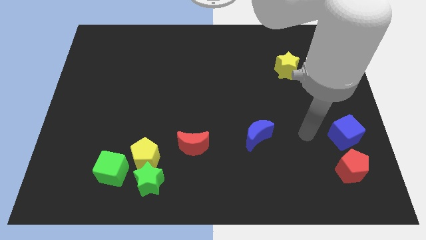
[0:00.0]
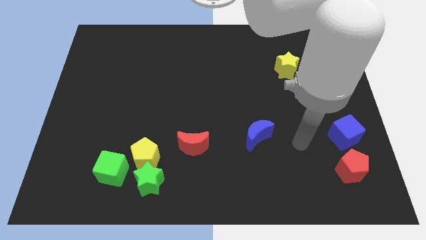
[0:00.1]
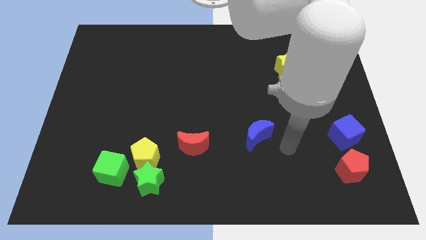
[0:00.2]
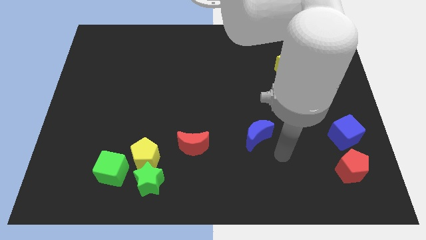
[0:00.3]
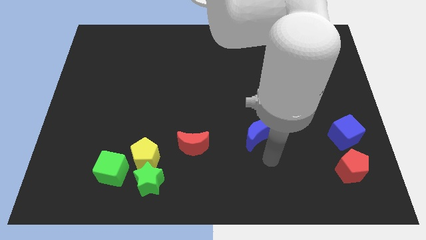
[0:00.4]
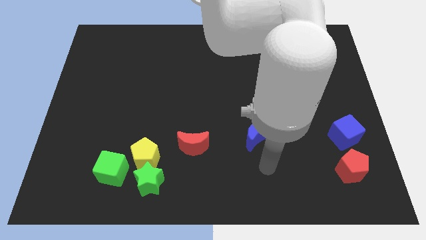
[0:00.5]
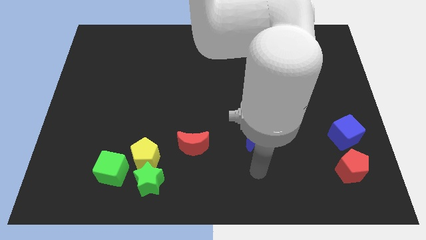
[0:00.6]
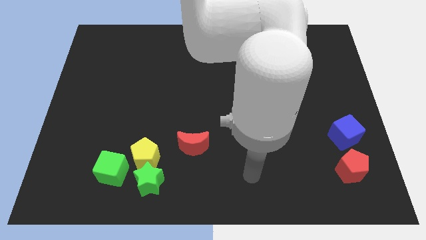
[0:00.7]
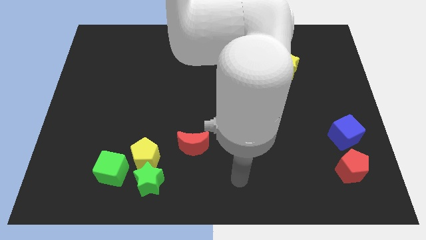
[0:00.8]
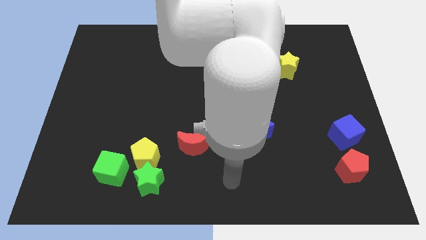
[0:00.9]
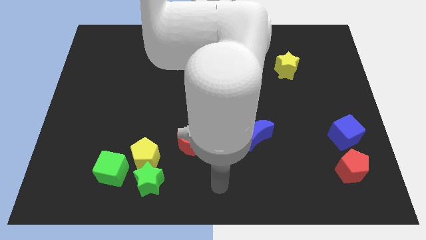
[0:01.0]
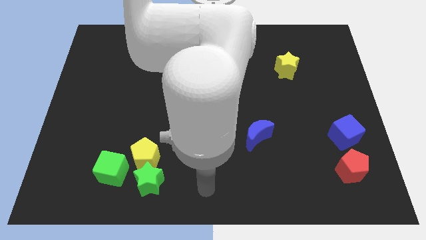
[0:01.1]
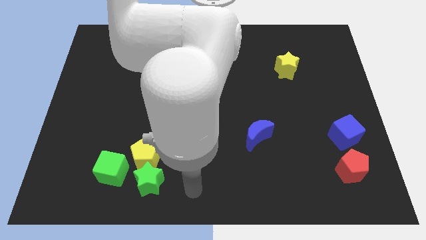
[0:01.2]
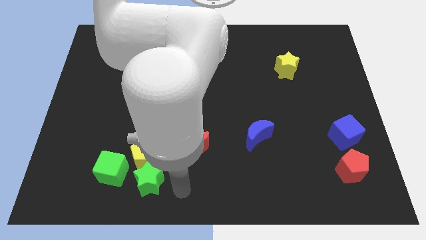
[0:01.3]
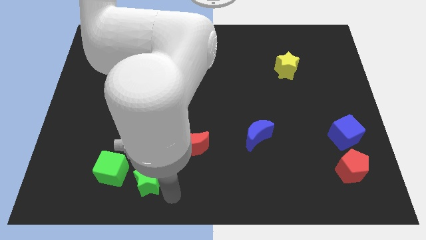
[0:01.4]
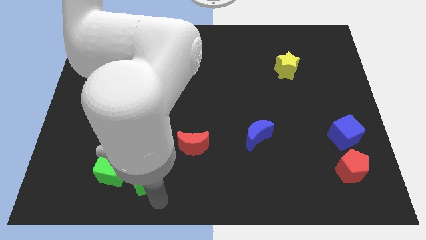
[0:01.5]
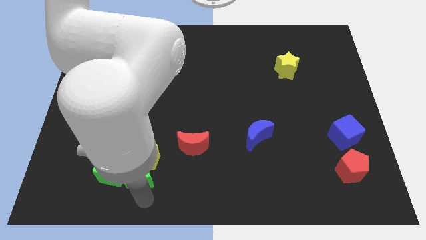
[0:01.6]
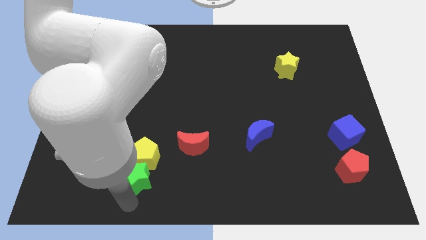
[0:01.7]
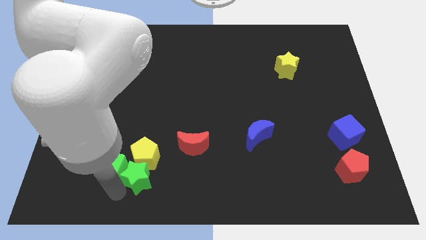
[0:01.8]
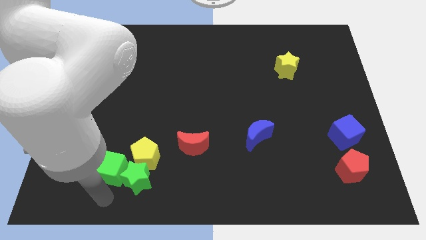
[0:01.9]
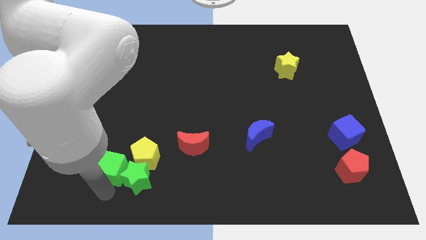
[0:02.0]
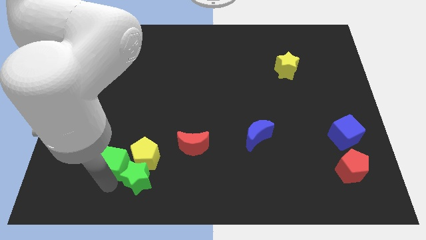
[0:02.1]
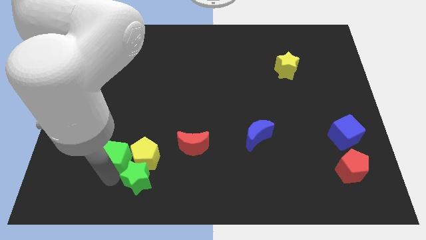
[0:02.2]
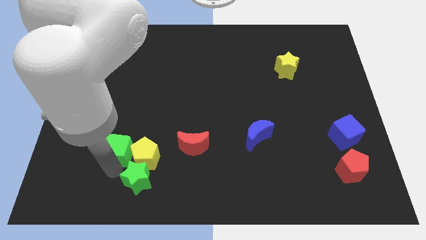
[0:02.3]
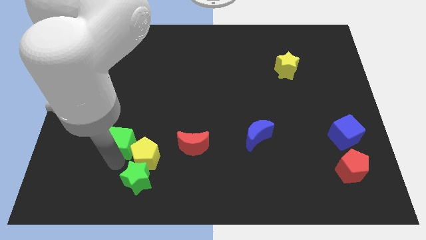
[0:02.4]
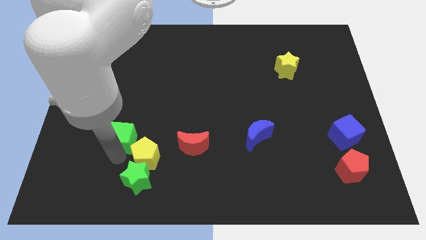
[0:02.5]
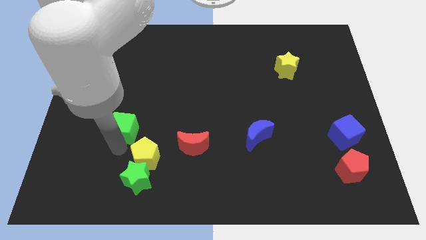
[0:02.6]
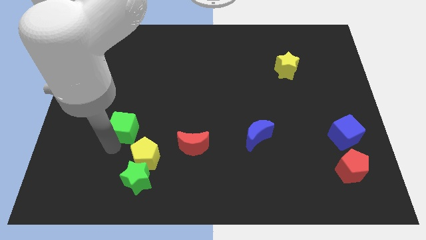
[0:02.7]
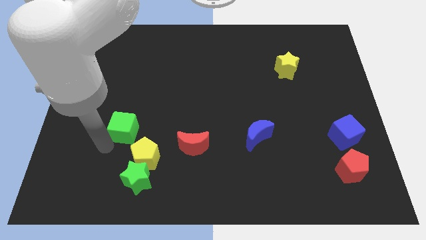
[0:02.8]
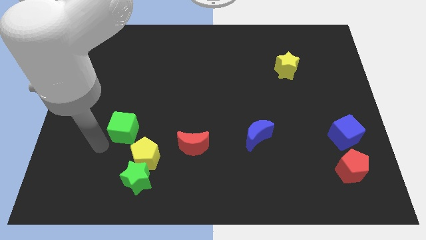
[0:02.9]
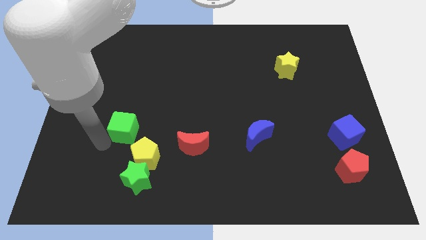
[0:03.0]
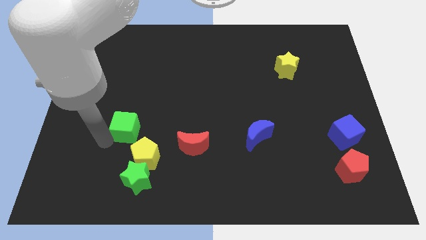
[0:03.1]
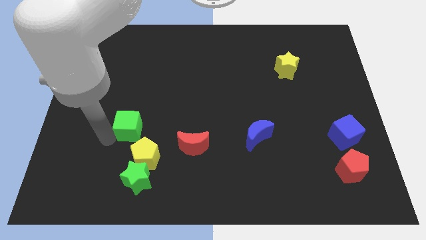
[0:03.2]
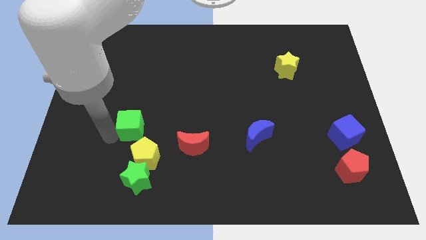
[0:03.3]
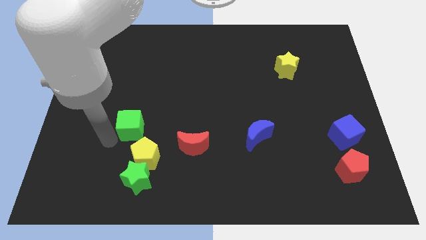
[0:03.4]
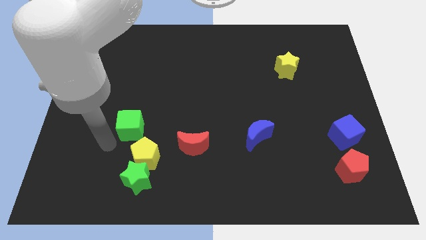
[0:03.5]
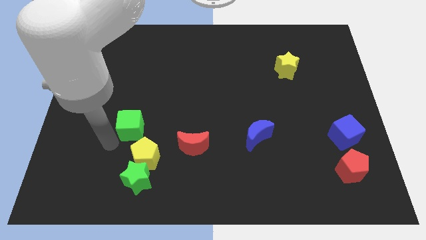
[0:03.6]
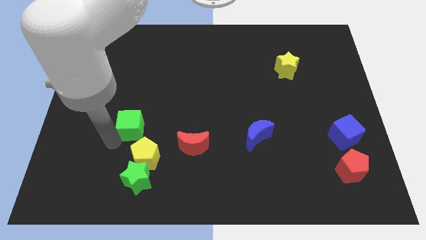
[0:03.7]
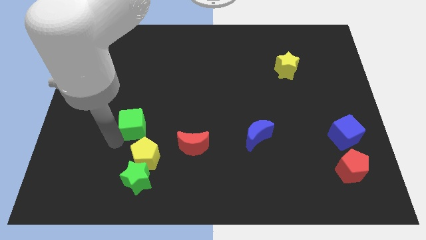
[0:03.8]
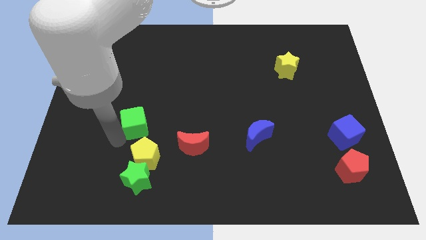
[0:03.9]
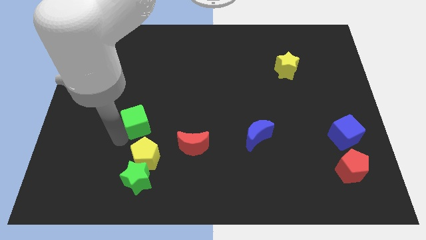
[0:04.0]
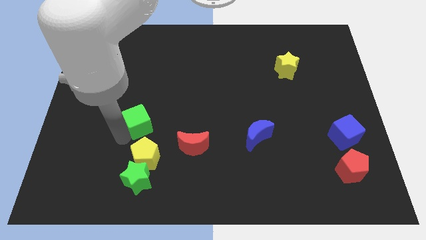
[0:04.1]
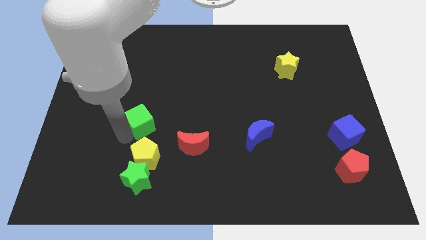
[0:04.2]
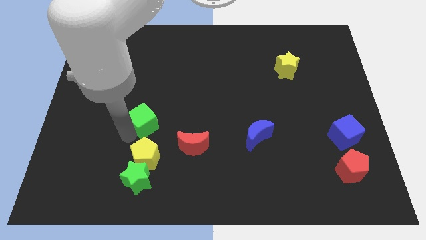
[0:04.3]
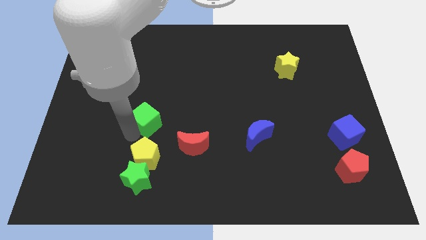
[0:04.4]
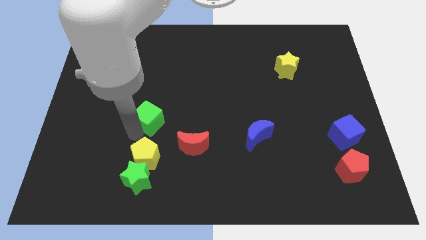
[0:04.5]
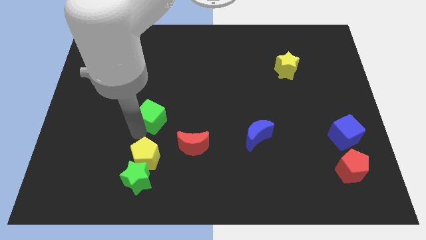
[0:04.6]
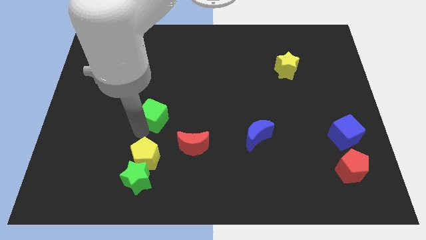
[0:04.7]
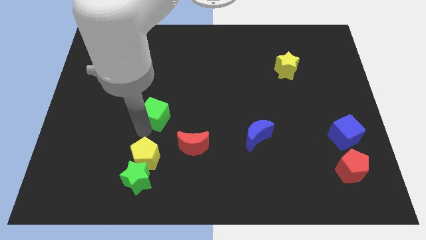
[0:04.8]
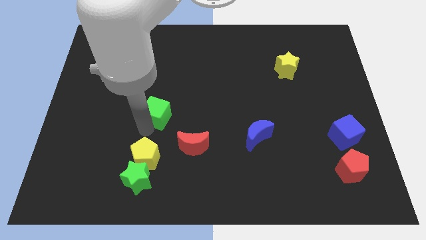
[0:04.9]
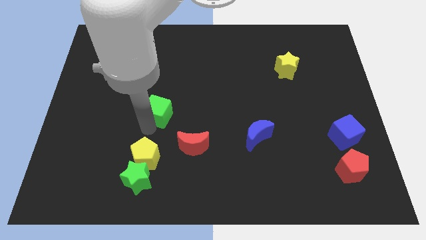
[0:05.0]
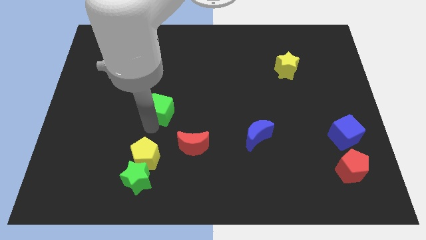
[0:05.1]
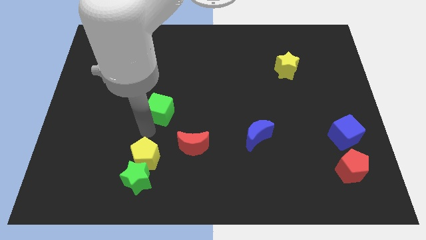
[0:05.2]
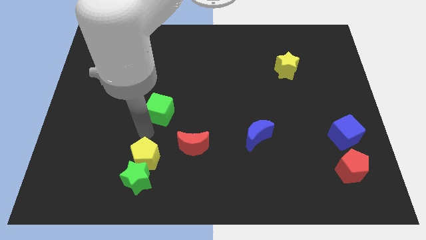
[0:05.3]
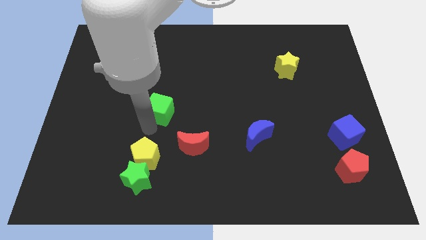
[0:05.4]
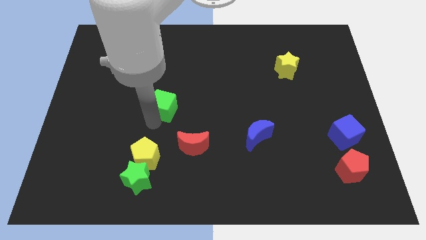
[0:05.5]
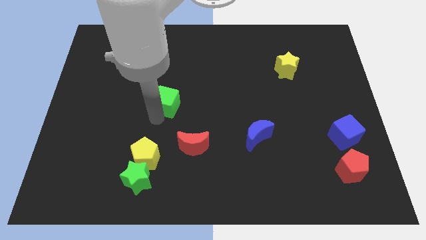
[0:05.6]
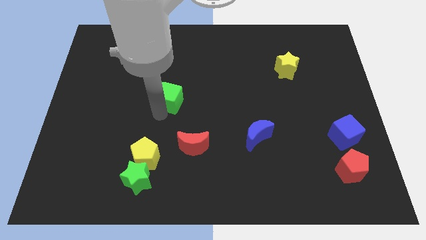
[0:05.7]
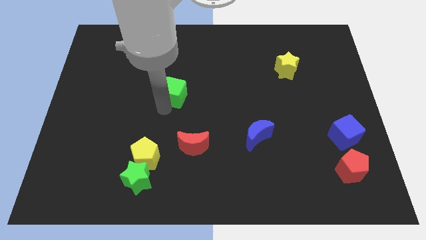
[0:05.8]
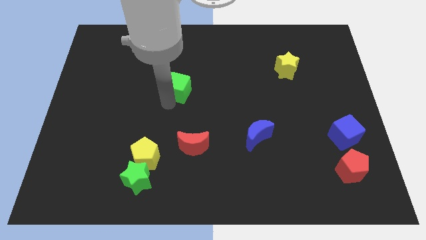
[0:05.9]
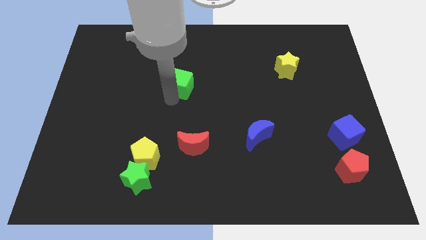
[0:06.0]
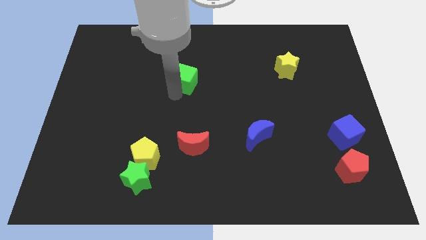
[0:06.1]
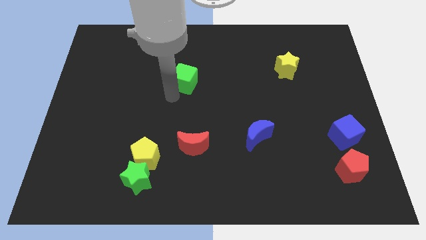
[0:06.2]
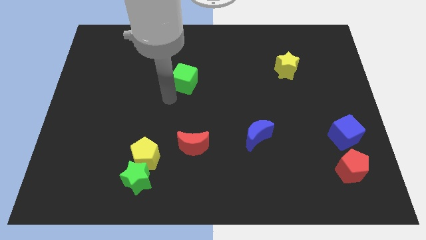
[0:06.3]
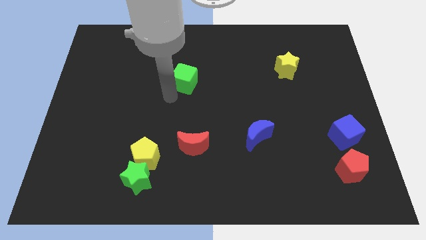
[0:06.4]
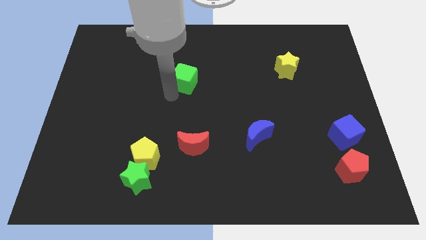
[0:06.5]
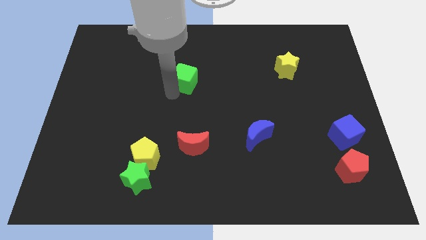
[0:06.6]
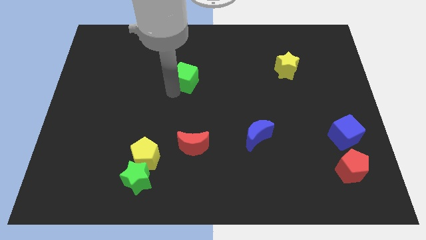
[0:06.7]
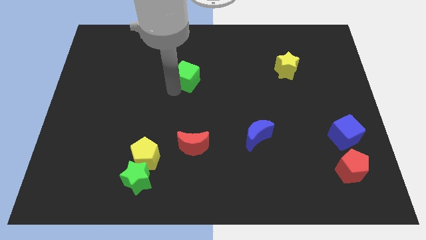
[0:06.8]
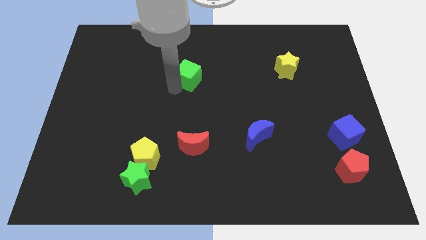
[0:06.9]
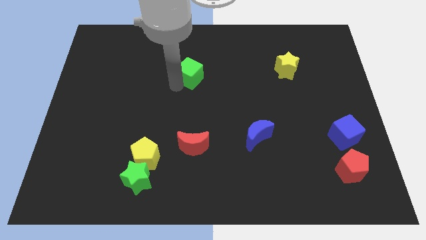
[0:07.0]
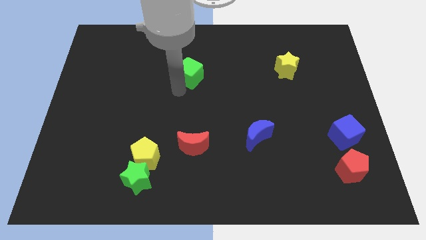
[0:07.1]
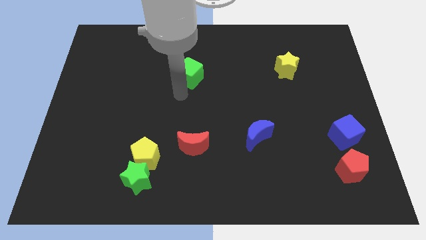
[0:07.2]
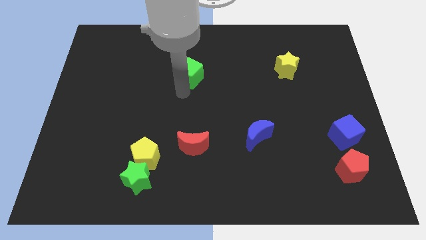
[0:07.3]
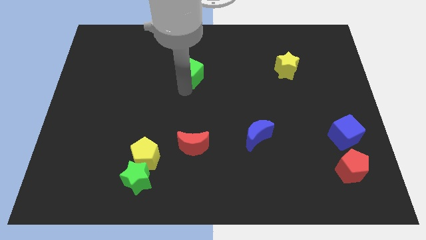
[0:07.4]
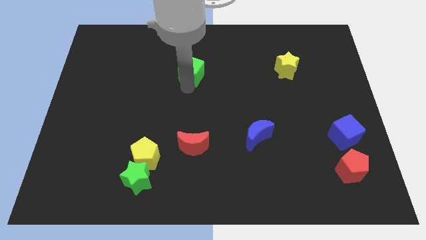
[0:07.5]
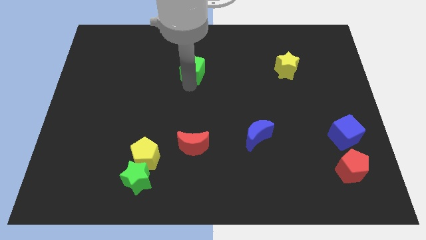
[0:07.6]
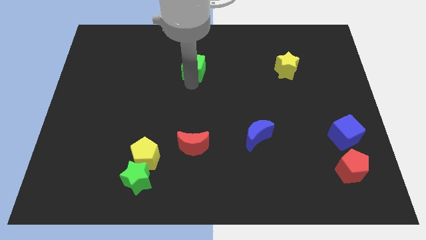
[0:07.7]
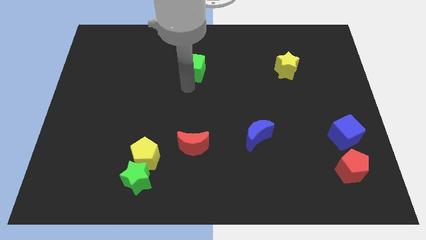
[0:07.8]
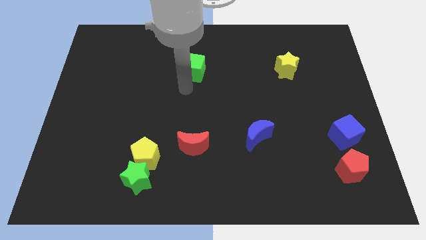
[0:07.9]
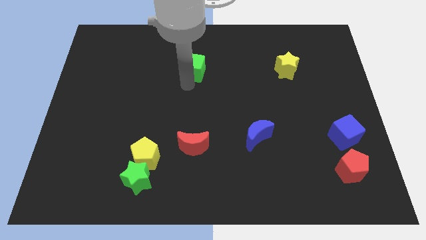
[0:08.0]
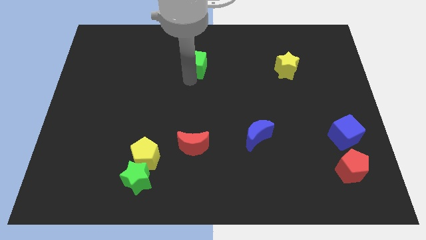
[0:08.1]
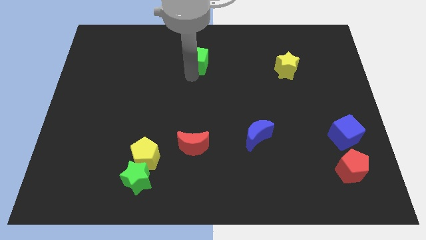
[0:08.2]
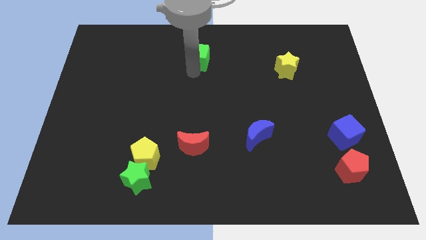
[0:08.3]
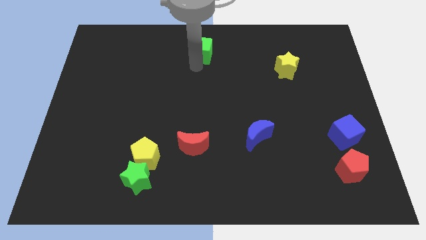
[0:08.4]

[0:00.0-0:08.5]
move the green cube to the top side
